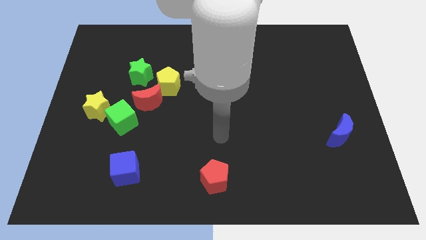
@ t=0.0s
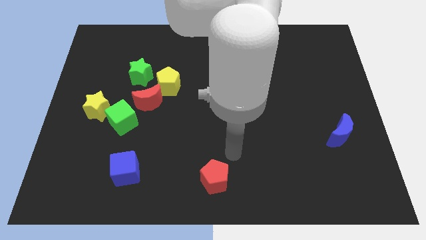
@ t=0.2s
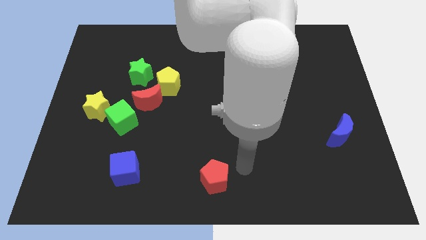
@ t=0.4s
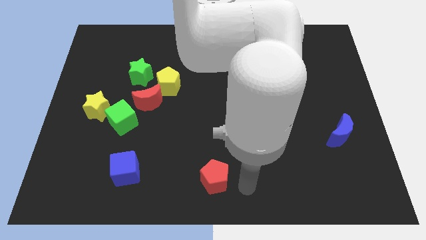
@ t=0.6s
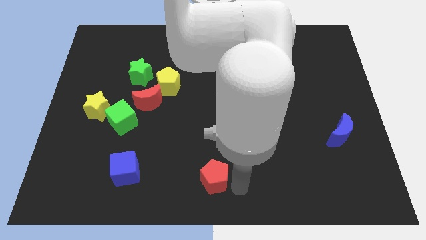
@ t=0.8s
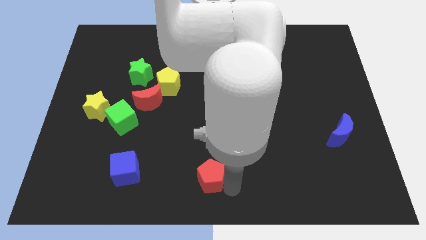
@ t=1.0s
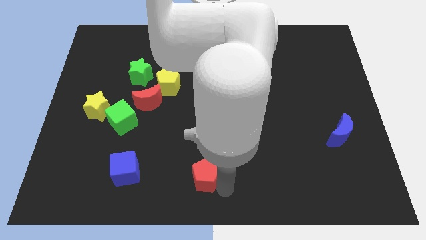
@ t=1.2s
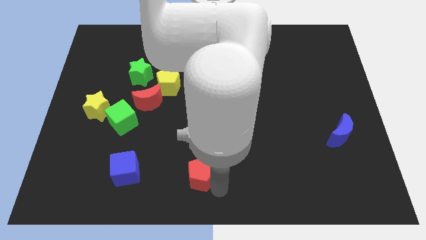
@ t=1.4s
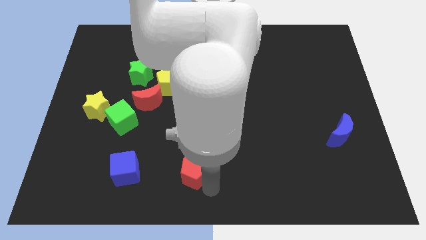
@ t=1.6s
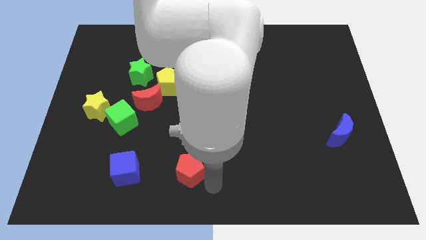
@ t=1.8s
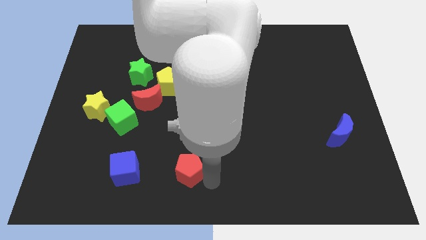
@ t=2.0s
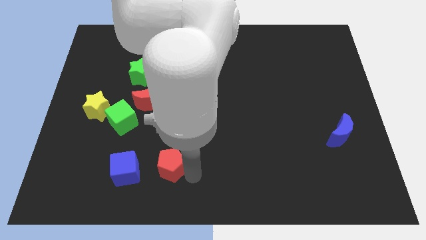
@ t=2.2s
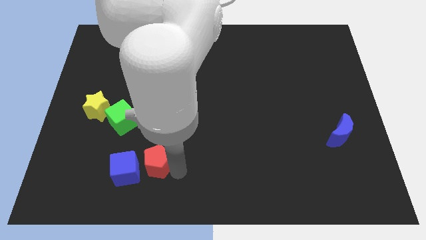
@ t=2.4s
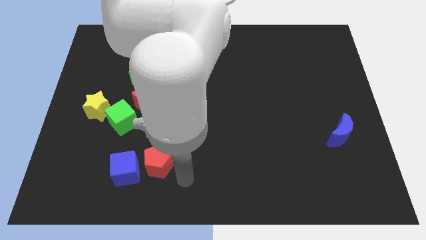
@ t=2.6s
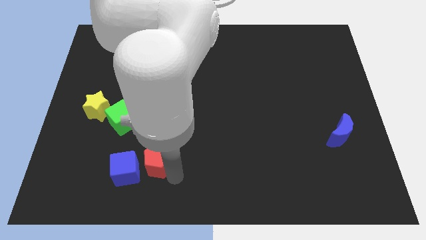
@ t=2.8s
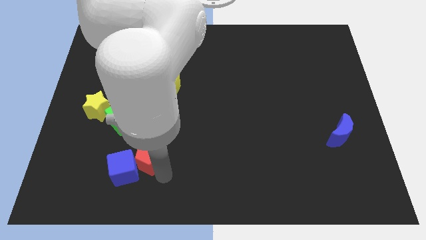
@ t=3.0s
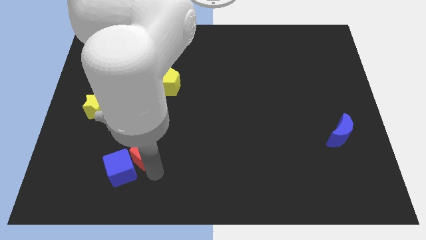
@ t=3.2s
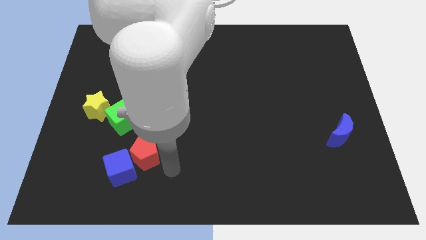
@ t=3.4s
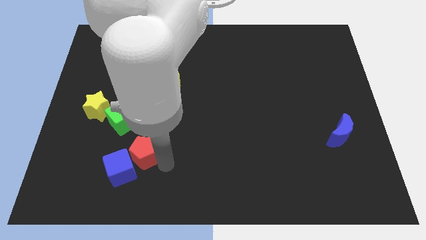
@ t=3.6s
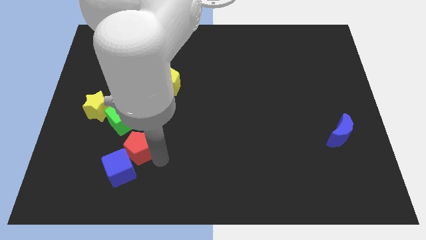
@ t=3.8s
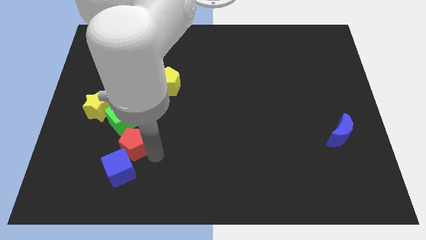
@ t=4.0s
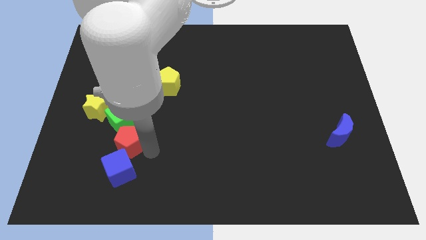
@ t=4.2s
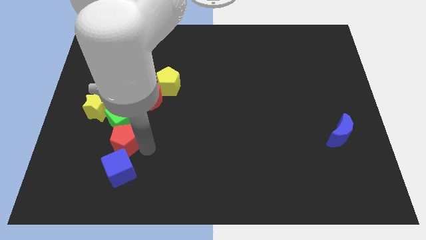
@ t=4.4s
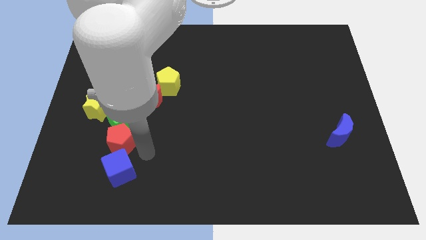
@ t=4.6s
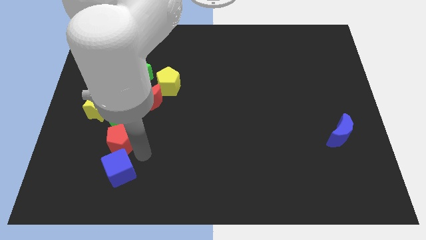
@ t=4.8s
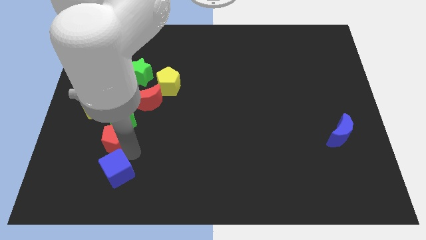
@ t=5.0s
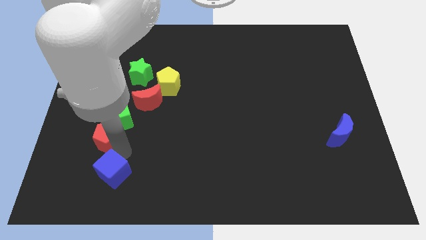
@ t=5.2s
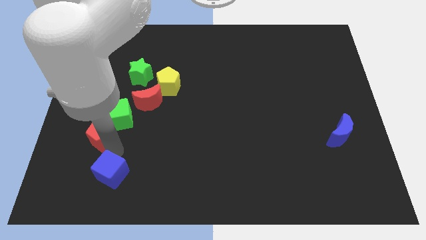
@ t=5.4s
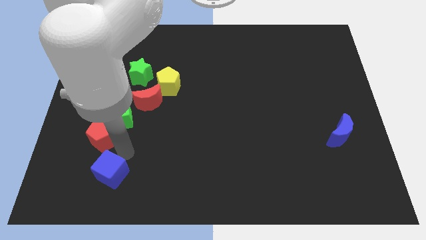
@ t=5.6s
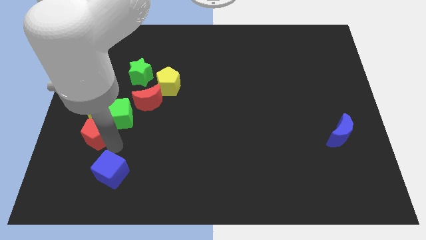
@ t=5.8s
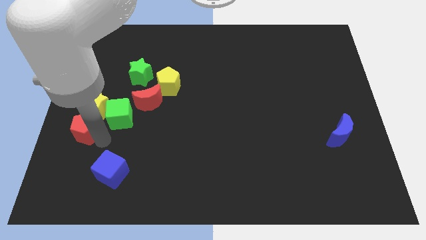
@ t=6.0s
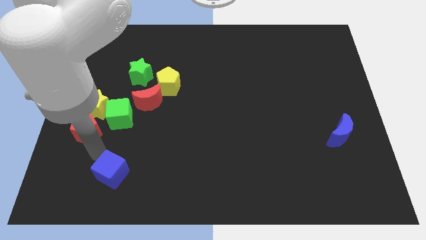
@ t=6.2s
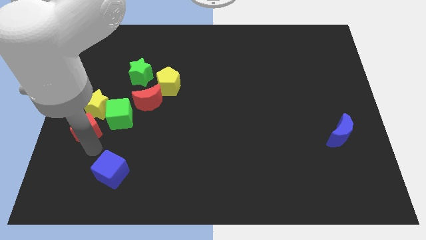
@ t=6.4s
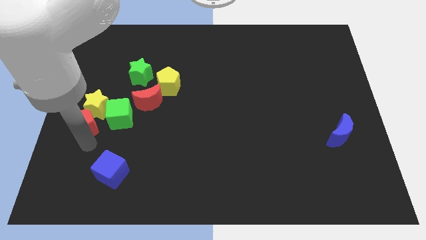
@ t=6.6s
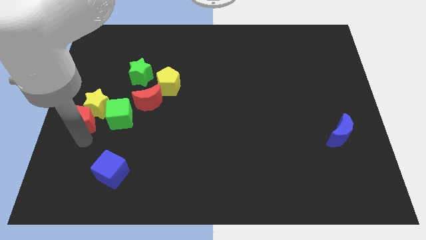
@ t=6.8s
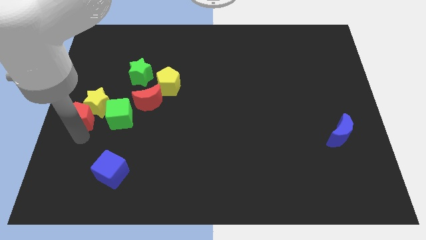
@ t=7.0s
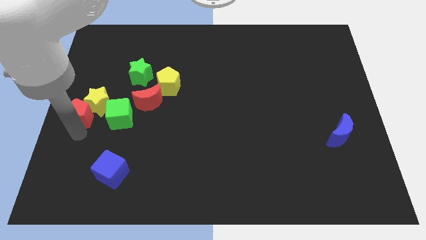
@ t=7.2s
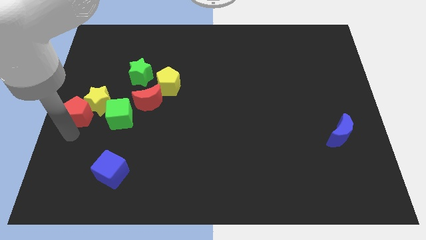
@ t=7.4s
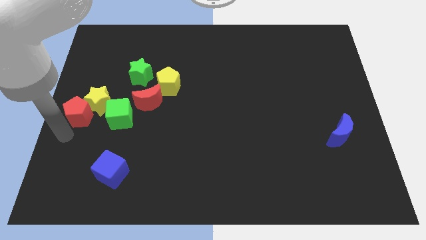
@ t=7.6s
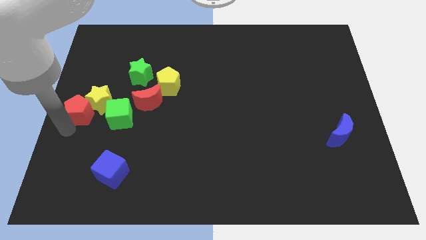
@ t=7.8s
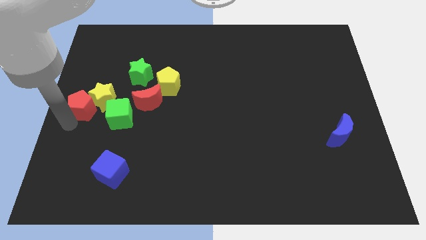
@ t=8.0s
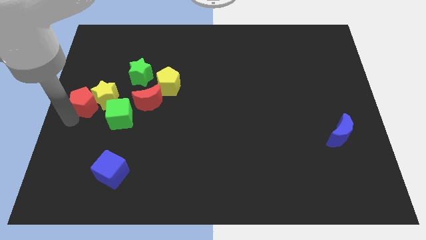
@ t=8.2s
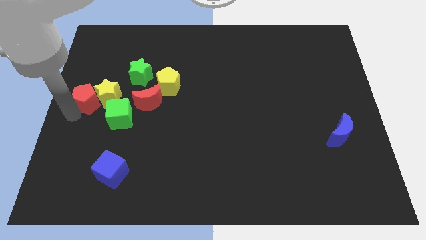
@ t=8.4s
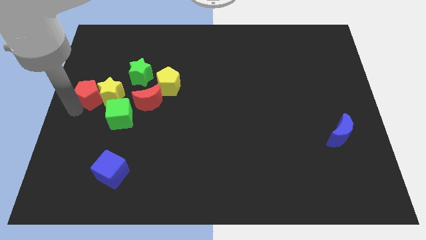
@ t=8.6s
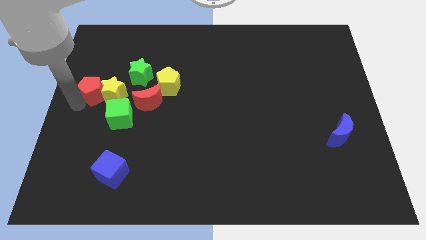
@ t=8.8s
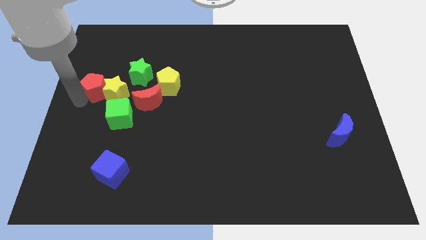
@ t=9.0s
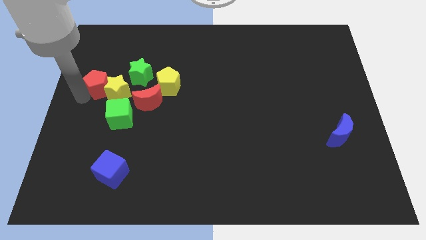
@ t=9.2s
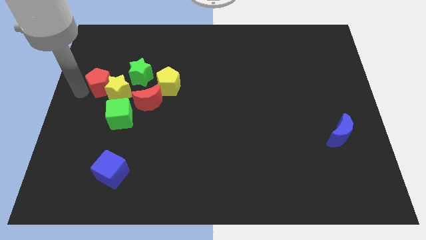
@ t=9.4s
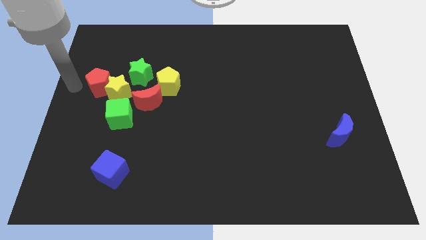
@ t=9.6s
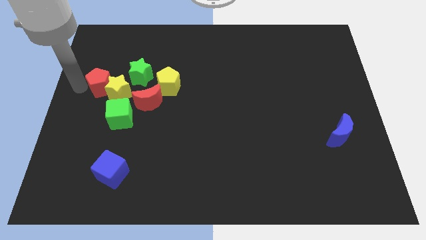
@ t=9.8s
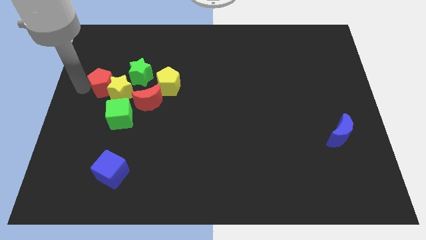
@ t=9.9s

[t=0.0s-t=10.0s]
put the red pentagon left of the yellow pentagon

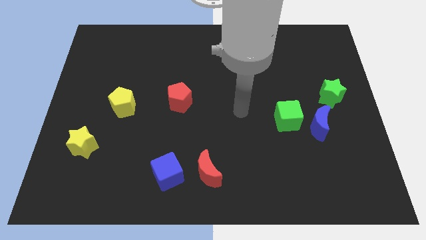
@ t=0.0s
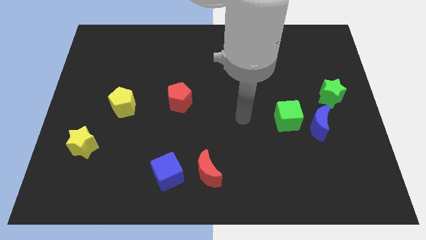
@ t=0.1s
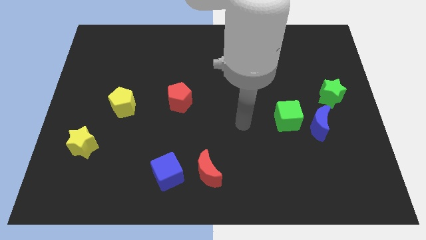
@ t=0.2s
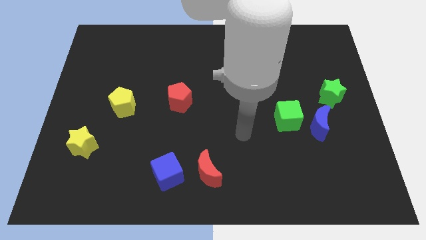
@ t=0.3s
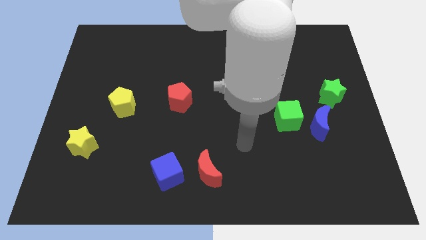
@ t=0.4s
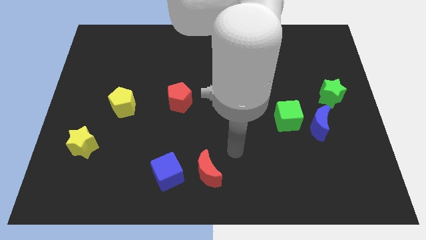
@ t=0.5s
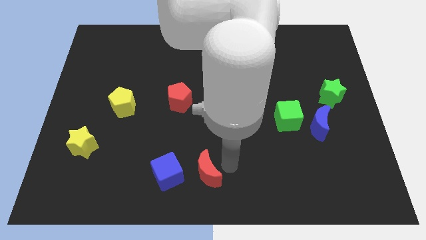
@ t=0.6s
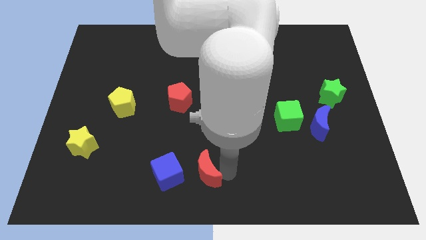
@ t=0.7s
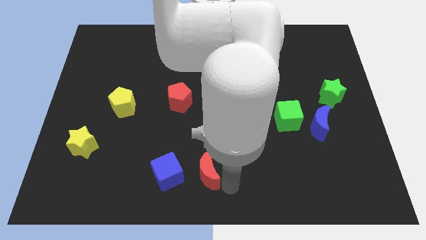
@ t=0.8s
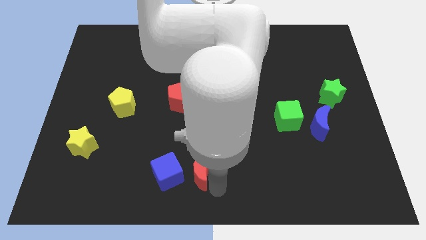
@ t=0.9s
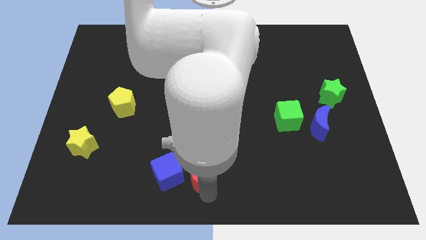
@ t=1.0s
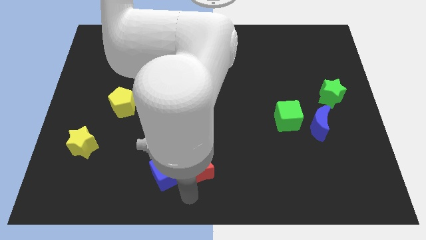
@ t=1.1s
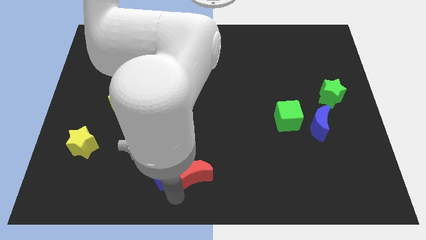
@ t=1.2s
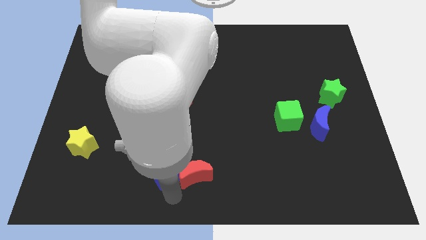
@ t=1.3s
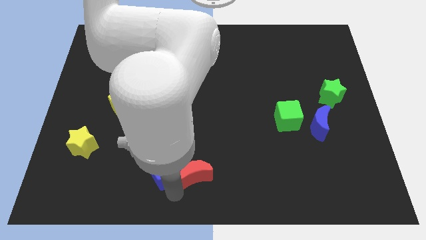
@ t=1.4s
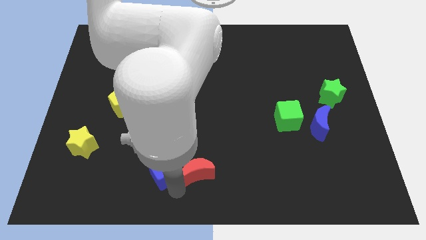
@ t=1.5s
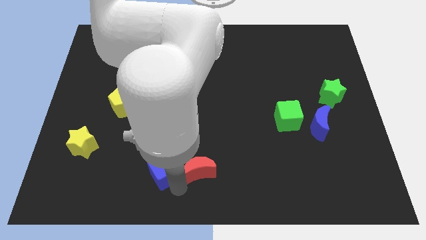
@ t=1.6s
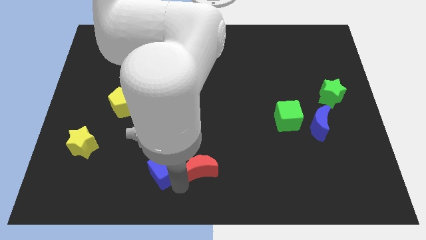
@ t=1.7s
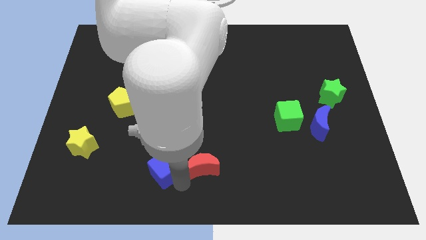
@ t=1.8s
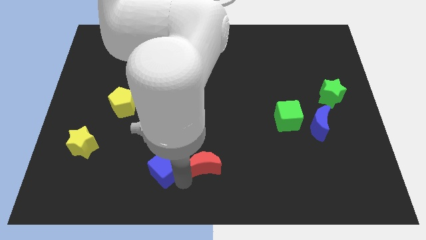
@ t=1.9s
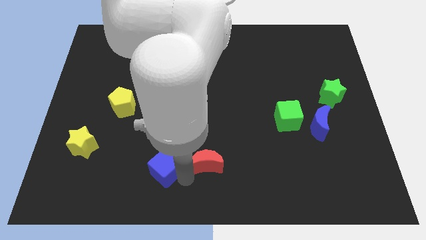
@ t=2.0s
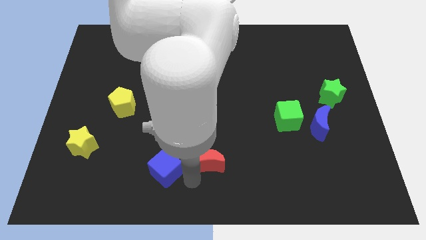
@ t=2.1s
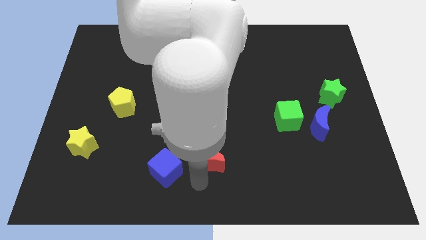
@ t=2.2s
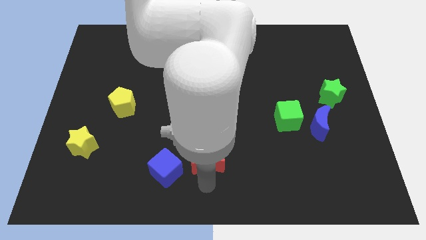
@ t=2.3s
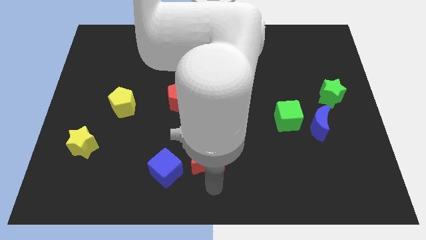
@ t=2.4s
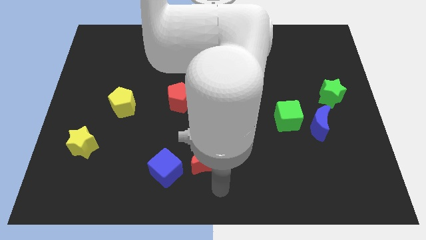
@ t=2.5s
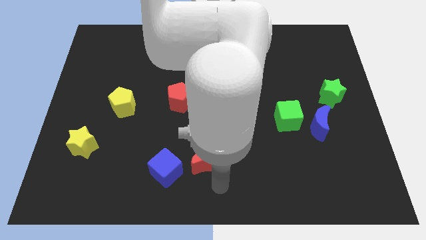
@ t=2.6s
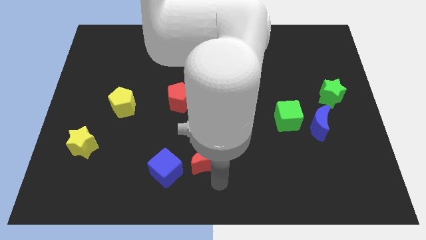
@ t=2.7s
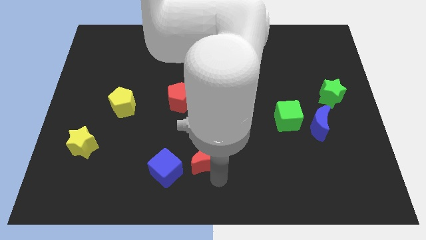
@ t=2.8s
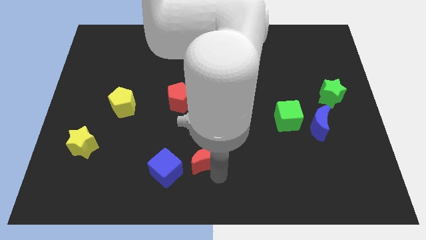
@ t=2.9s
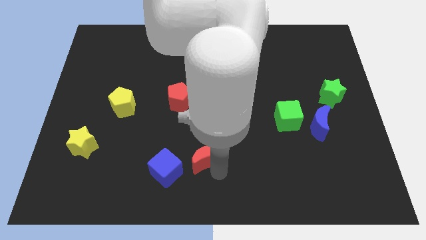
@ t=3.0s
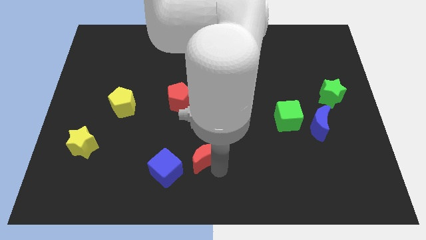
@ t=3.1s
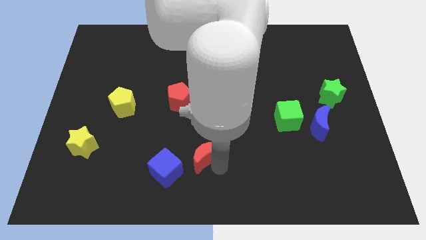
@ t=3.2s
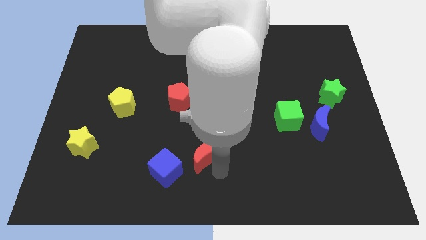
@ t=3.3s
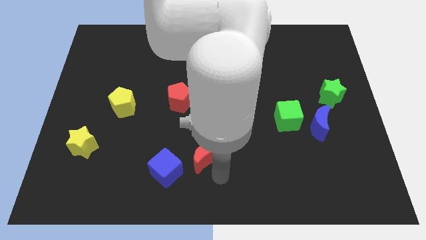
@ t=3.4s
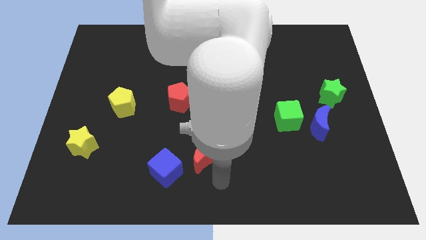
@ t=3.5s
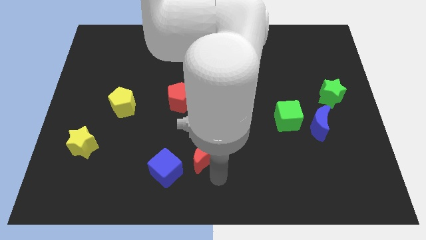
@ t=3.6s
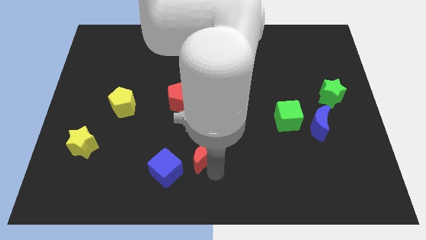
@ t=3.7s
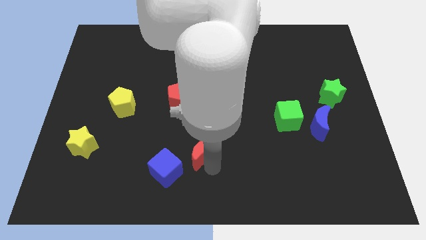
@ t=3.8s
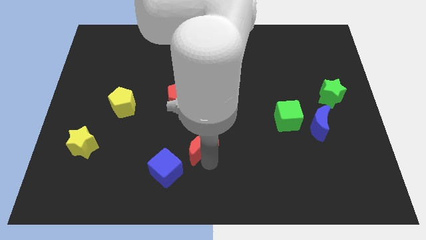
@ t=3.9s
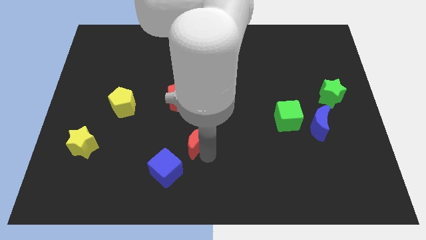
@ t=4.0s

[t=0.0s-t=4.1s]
slide the red moon to the bottom of the red pentagon
